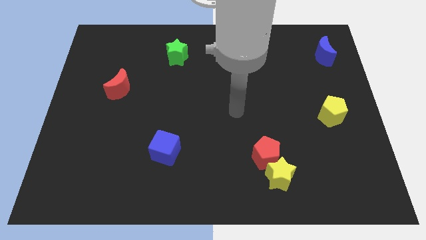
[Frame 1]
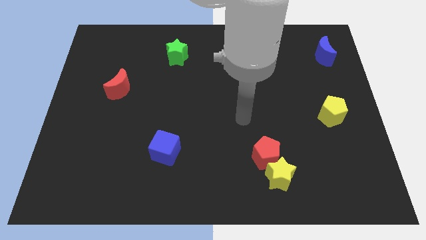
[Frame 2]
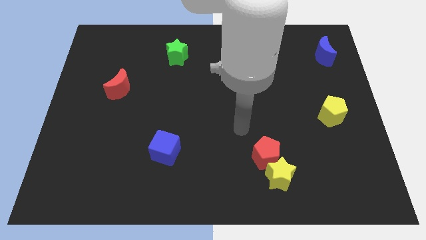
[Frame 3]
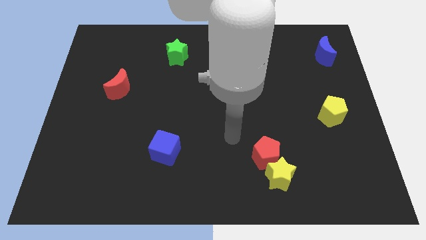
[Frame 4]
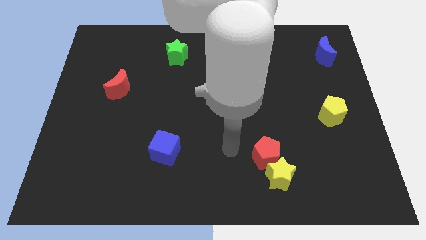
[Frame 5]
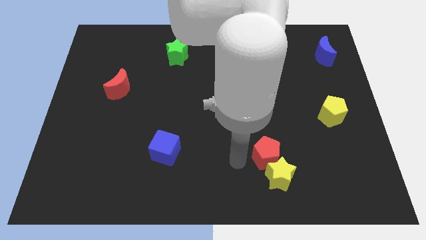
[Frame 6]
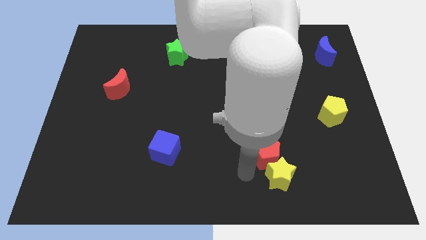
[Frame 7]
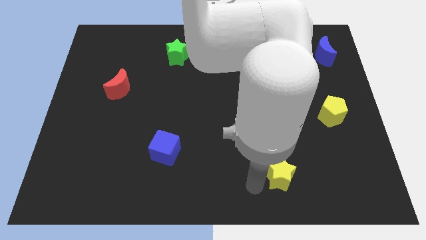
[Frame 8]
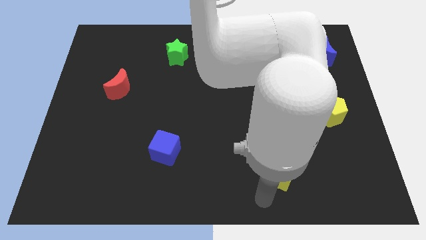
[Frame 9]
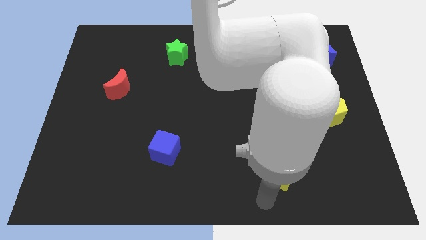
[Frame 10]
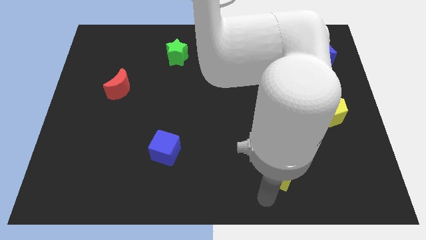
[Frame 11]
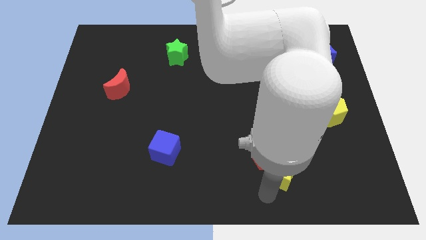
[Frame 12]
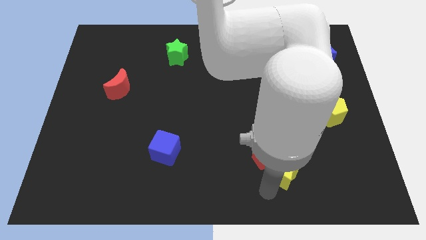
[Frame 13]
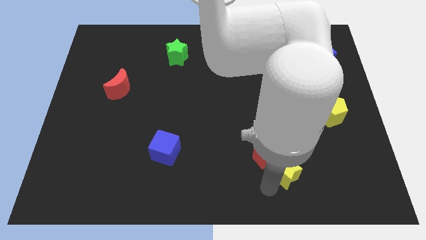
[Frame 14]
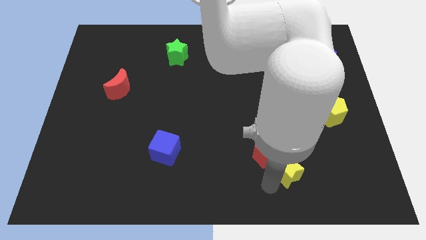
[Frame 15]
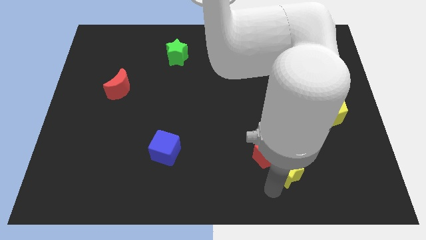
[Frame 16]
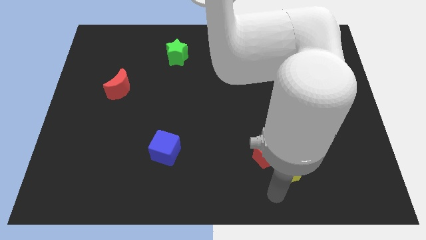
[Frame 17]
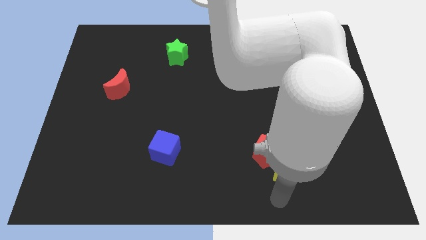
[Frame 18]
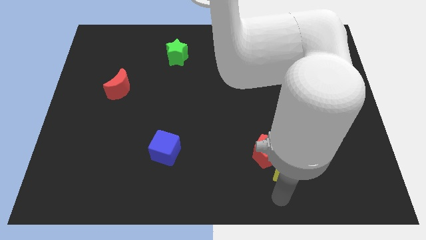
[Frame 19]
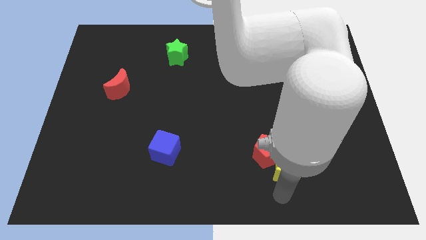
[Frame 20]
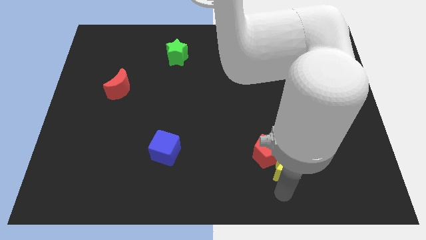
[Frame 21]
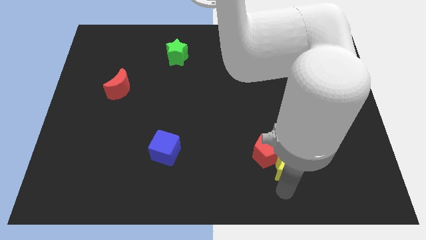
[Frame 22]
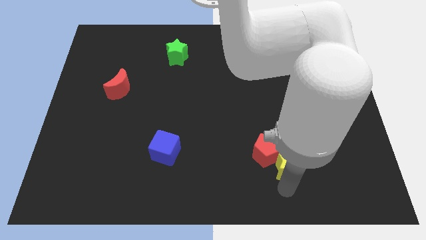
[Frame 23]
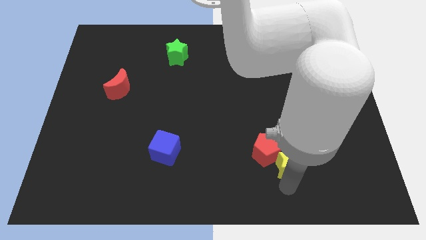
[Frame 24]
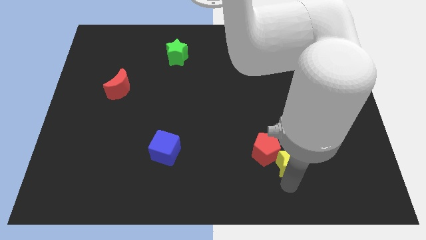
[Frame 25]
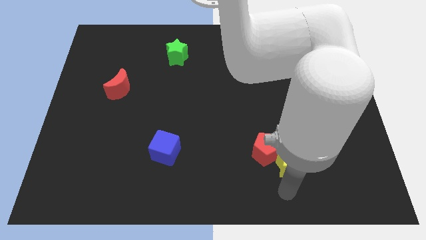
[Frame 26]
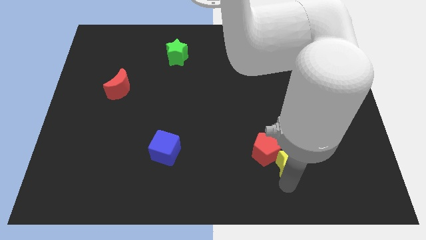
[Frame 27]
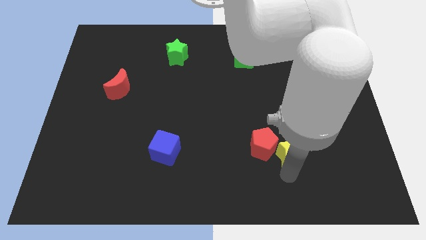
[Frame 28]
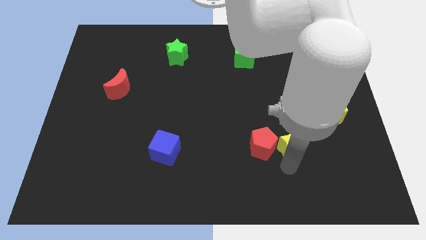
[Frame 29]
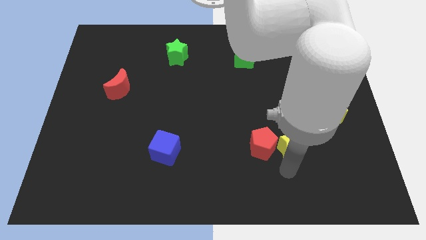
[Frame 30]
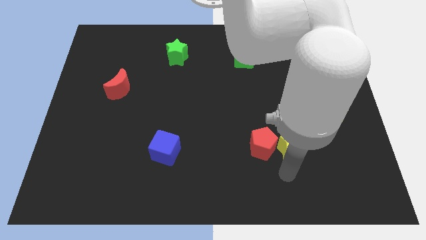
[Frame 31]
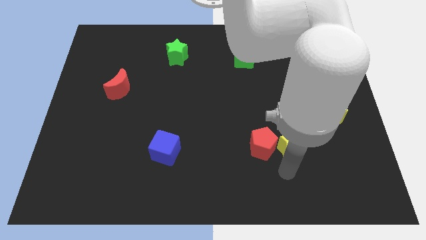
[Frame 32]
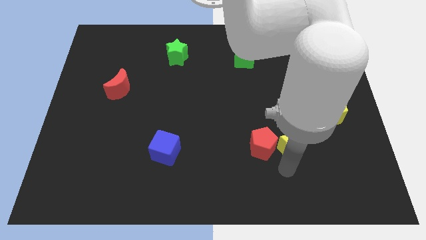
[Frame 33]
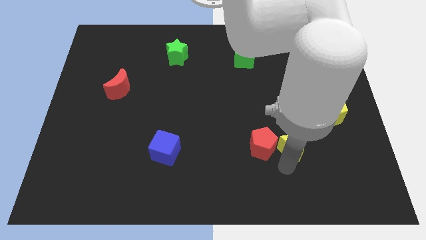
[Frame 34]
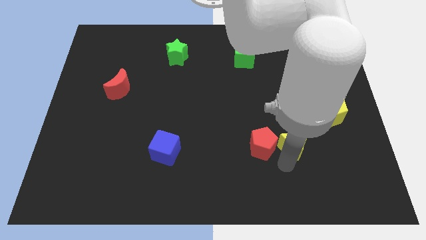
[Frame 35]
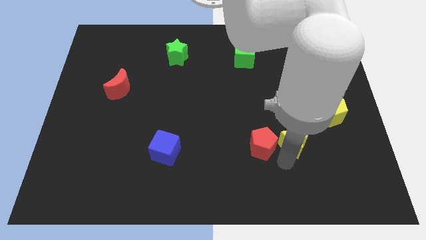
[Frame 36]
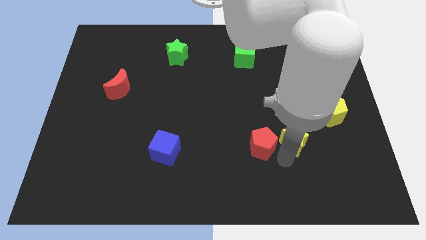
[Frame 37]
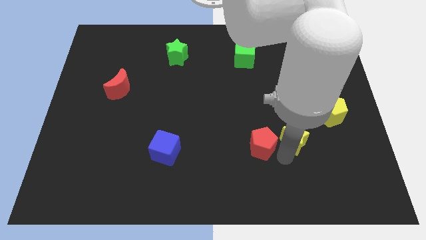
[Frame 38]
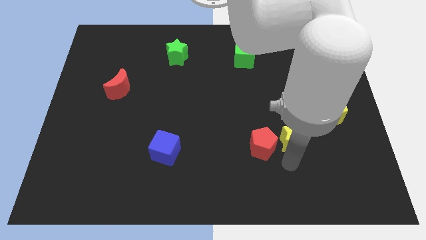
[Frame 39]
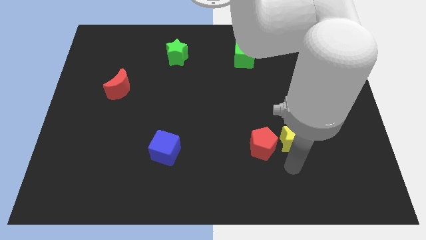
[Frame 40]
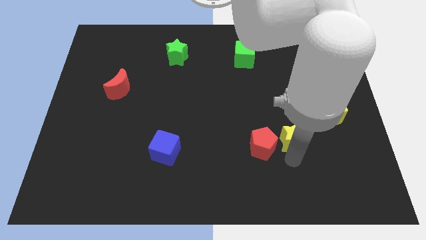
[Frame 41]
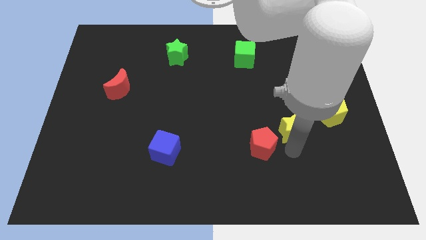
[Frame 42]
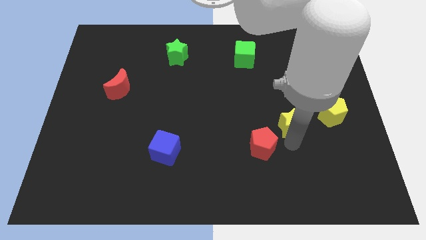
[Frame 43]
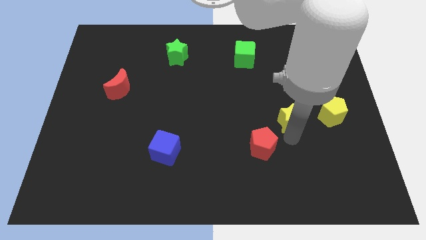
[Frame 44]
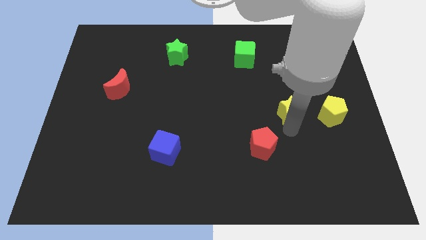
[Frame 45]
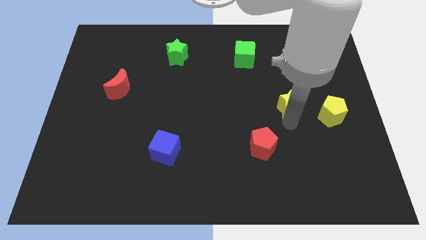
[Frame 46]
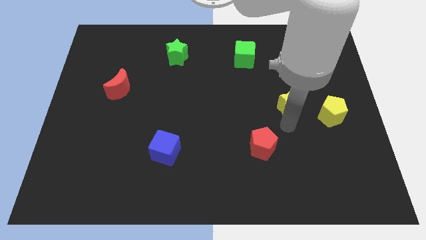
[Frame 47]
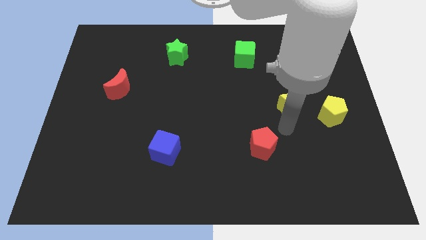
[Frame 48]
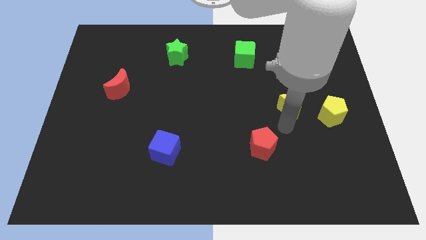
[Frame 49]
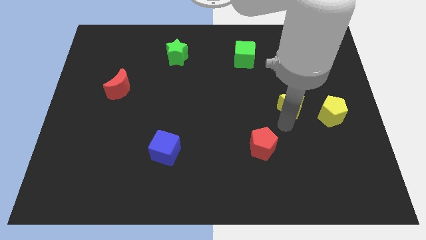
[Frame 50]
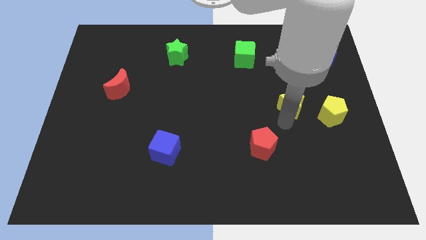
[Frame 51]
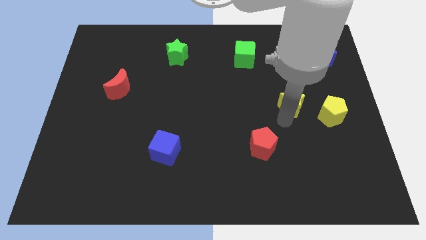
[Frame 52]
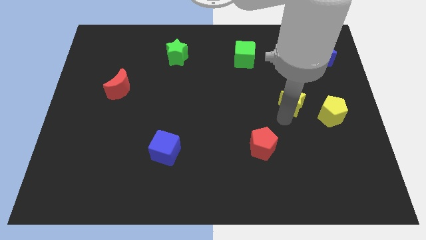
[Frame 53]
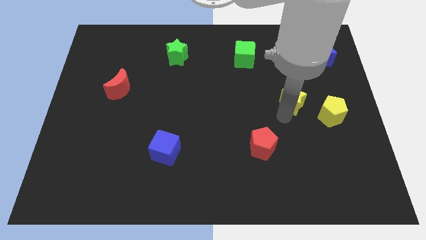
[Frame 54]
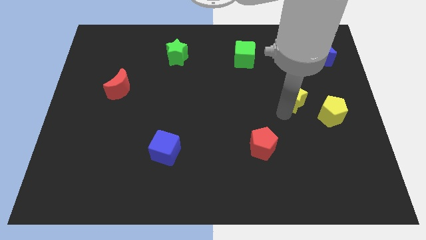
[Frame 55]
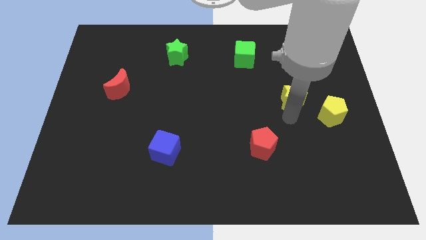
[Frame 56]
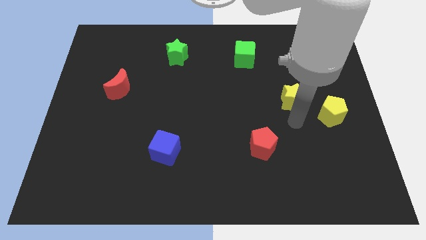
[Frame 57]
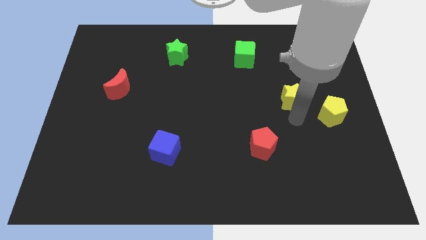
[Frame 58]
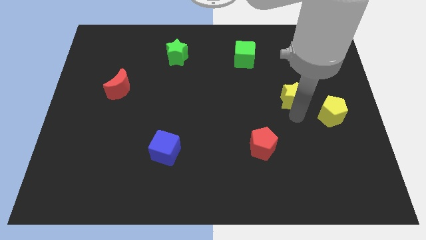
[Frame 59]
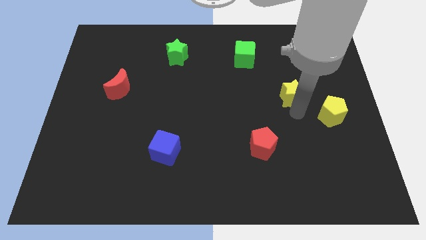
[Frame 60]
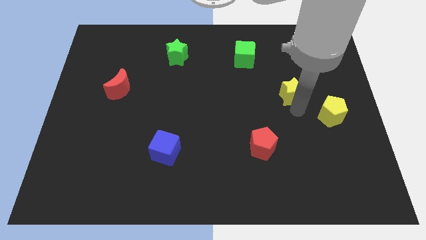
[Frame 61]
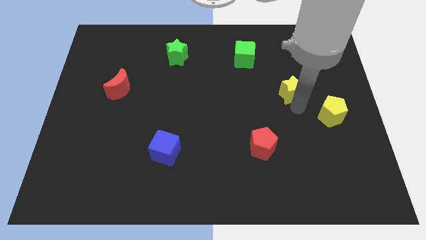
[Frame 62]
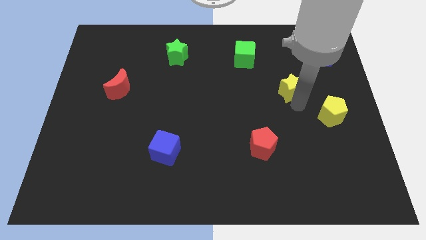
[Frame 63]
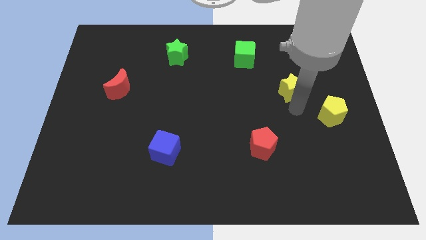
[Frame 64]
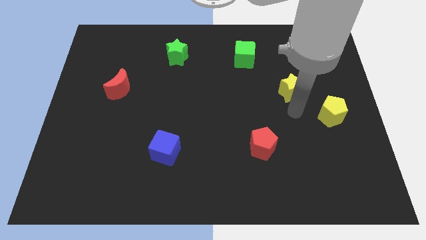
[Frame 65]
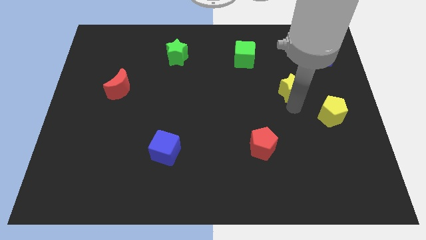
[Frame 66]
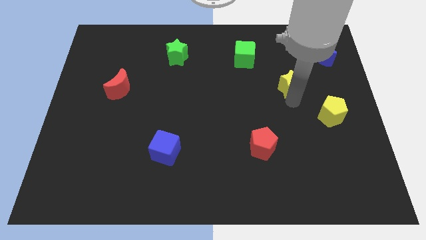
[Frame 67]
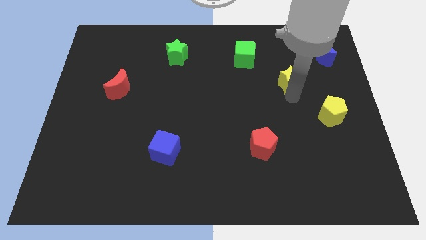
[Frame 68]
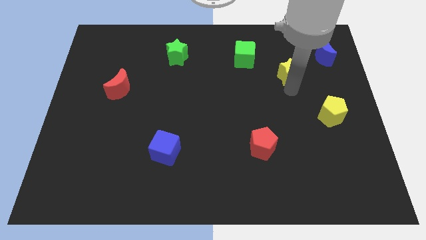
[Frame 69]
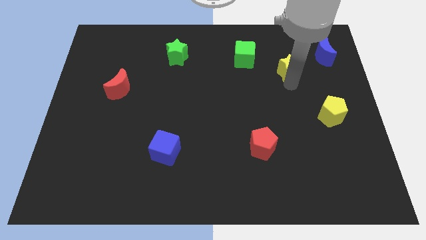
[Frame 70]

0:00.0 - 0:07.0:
put the yellow star right of the green cube
